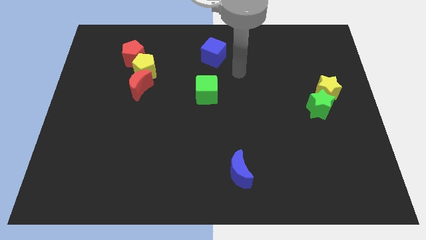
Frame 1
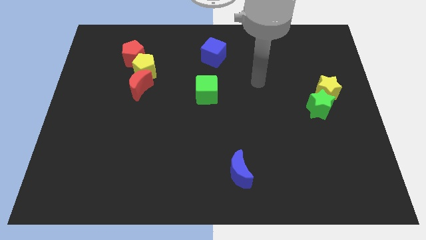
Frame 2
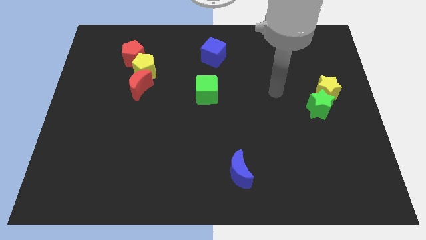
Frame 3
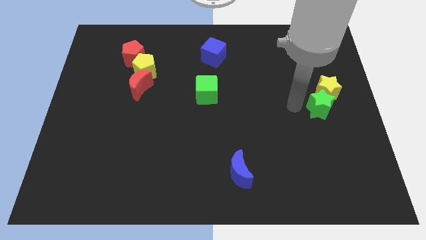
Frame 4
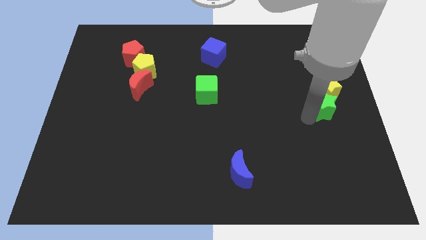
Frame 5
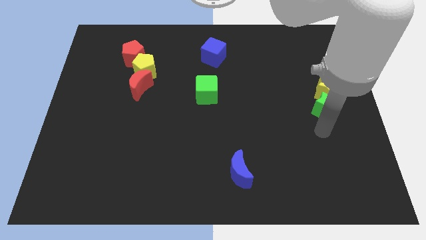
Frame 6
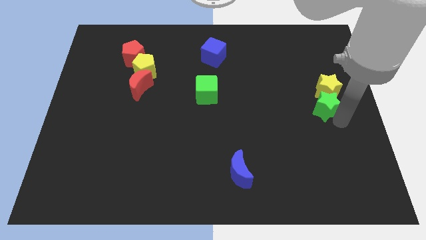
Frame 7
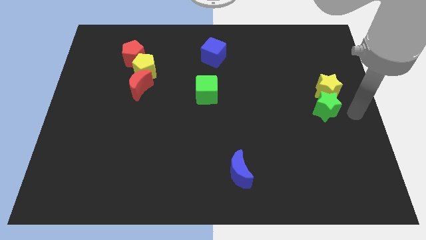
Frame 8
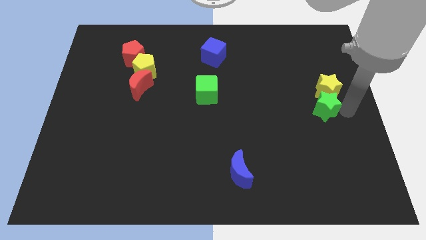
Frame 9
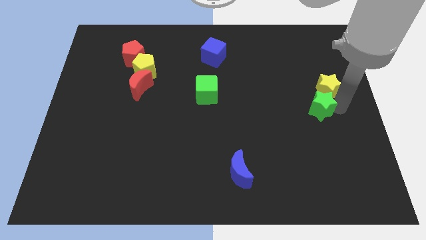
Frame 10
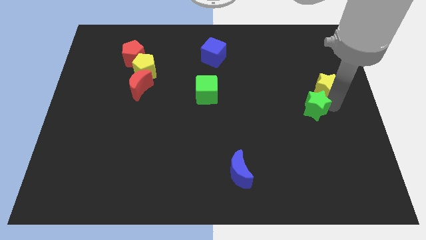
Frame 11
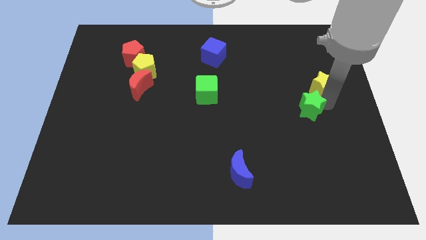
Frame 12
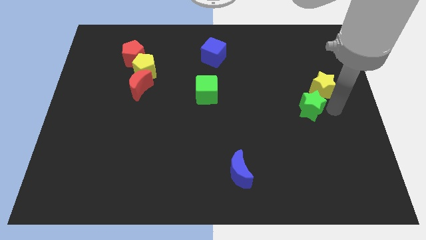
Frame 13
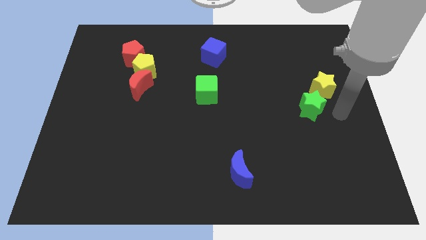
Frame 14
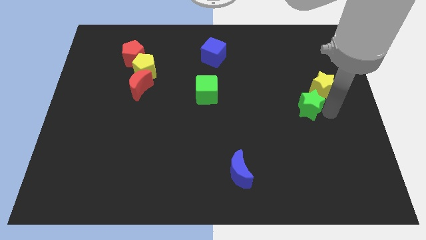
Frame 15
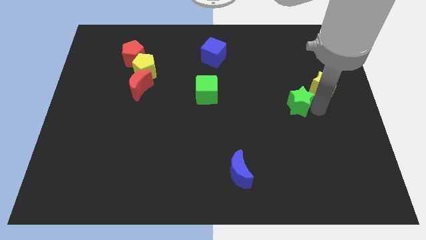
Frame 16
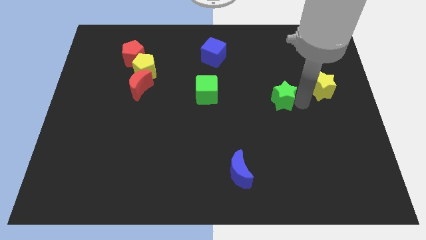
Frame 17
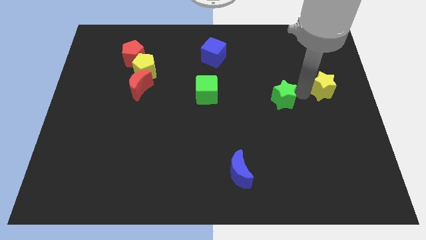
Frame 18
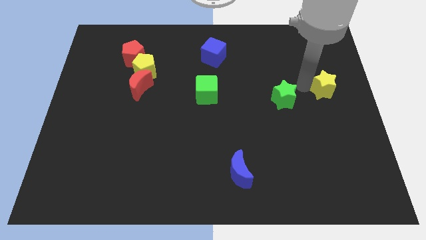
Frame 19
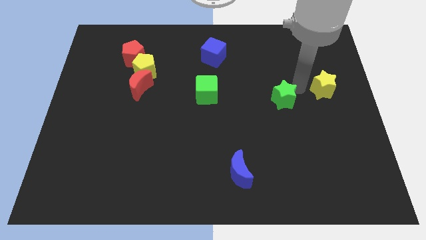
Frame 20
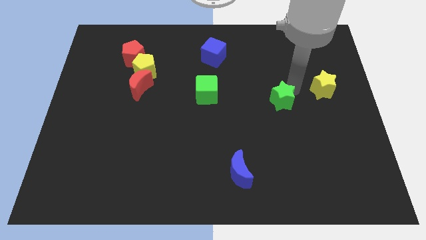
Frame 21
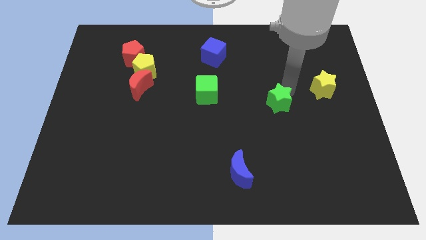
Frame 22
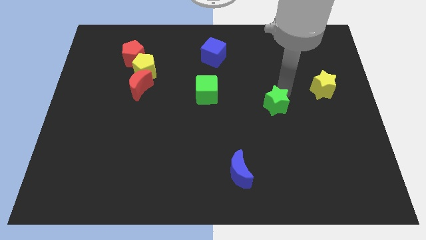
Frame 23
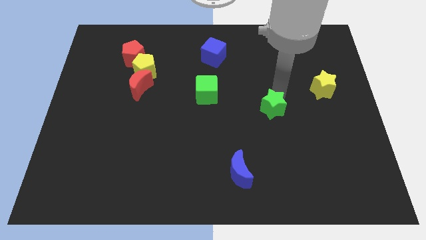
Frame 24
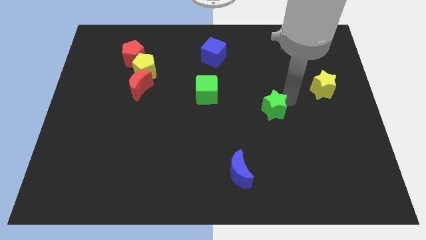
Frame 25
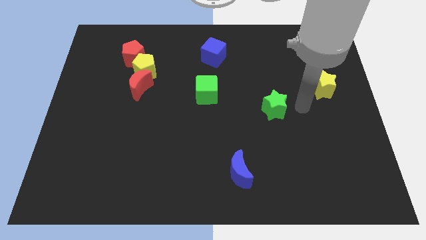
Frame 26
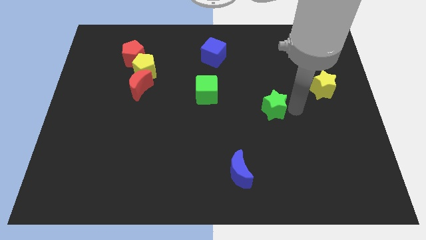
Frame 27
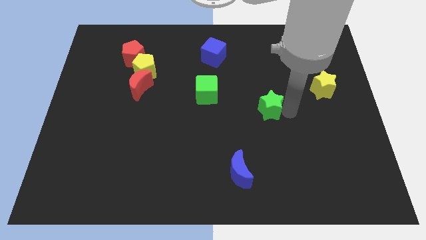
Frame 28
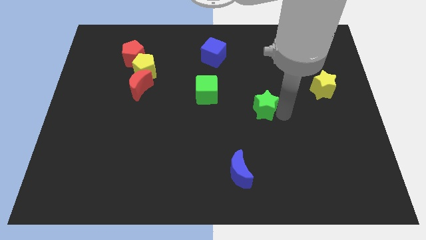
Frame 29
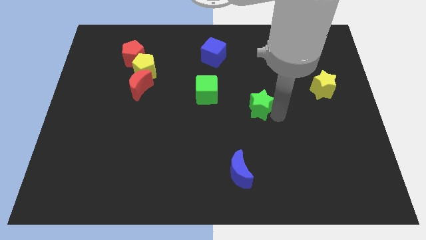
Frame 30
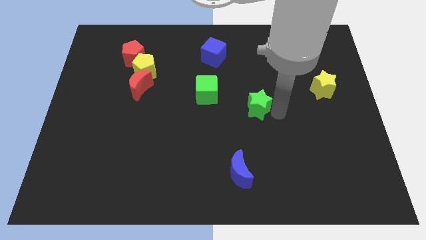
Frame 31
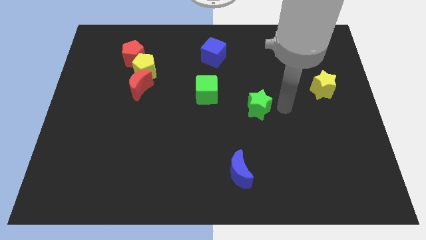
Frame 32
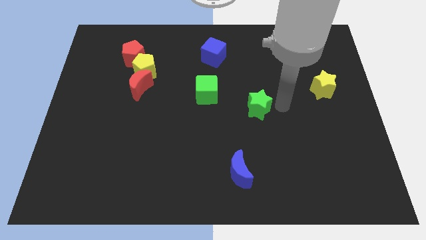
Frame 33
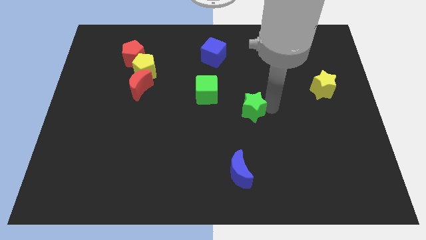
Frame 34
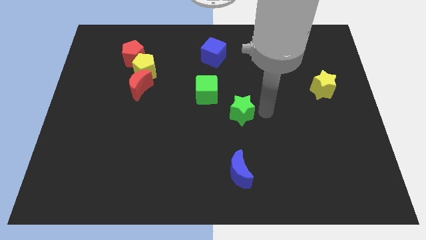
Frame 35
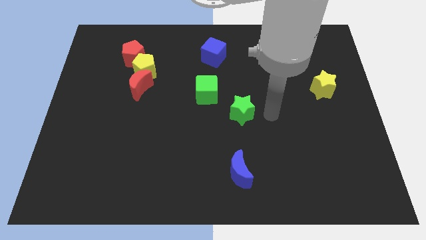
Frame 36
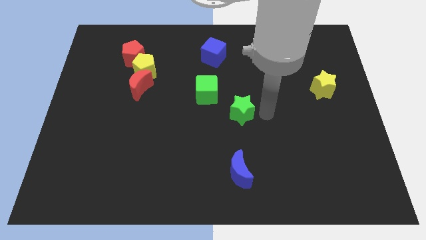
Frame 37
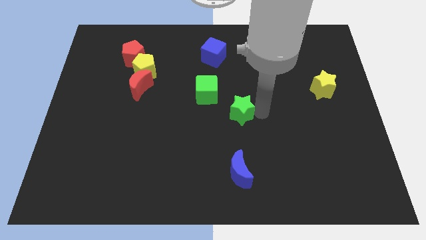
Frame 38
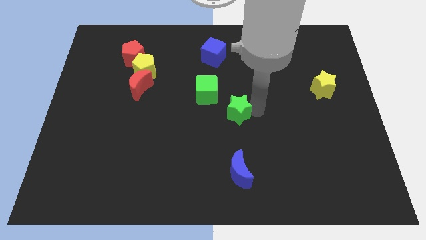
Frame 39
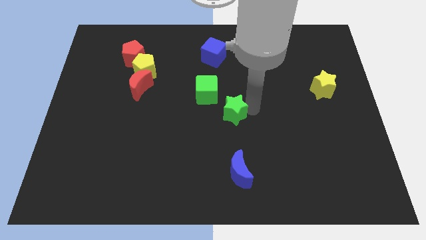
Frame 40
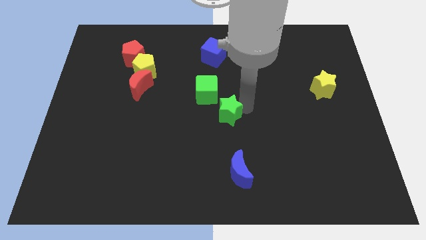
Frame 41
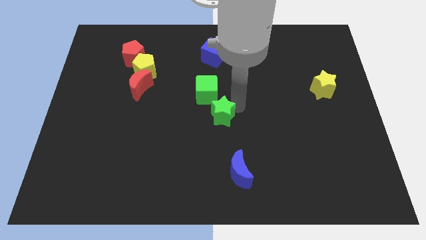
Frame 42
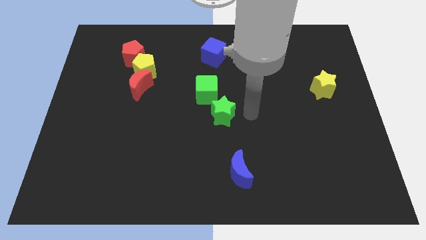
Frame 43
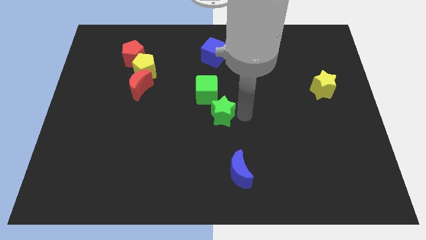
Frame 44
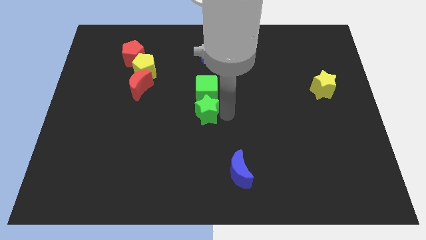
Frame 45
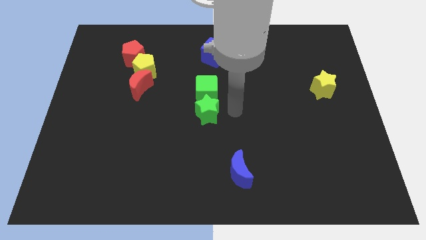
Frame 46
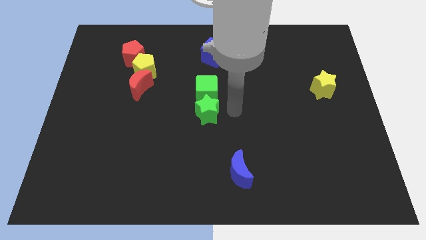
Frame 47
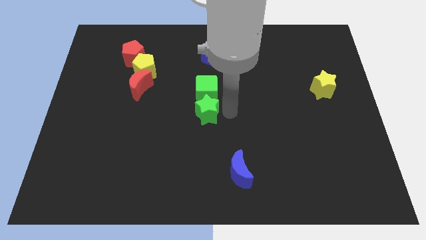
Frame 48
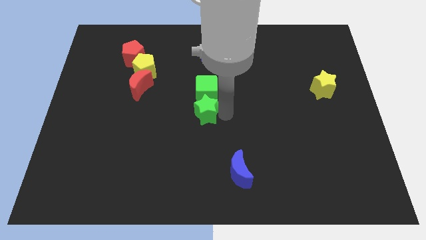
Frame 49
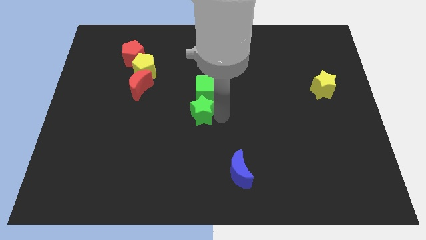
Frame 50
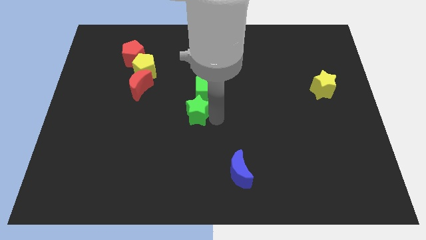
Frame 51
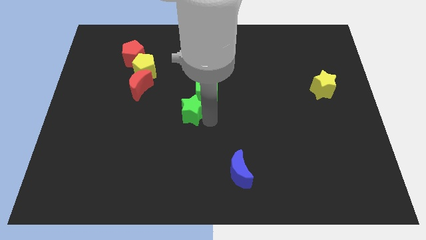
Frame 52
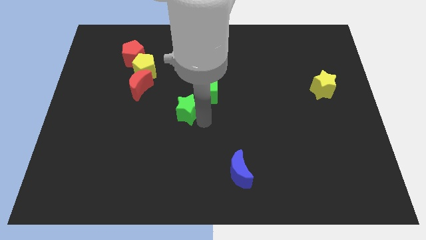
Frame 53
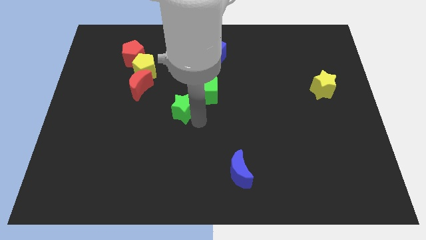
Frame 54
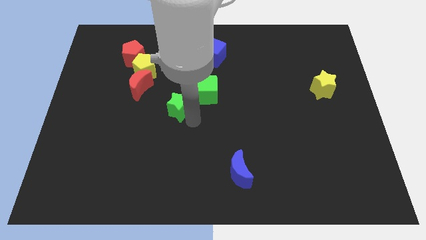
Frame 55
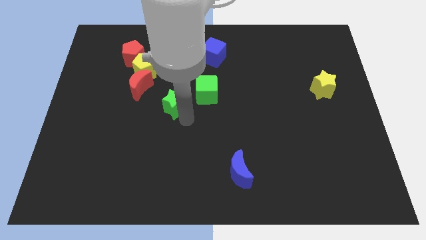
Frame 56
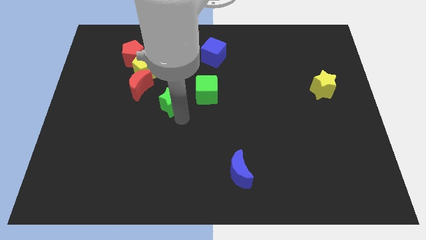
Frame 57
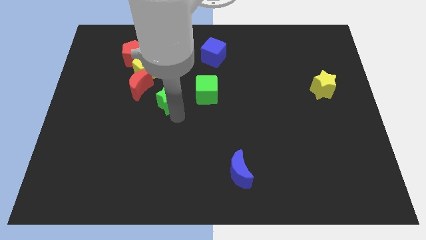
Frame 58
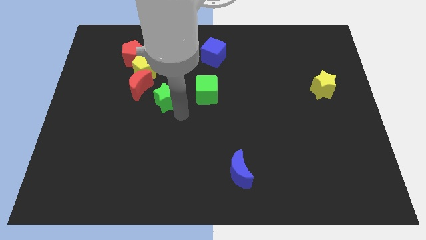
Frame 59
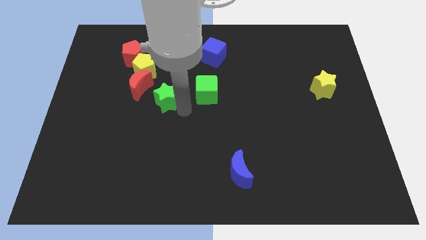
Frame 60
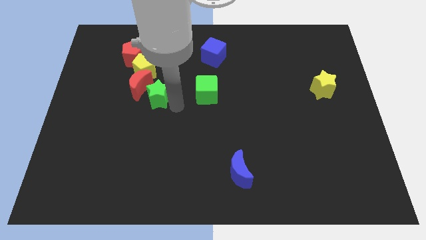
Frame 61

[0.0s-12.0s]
push the green star to the red moon

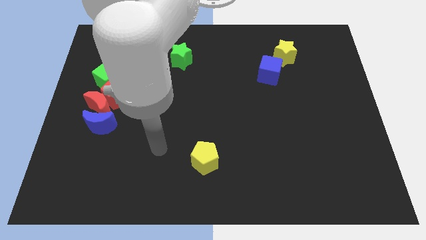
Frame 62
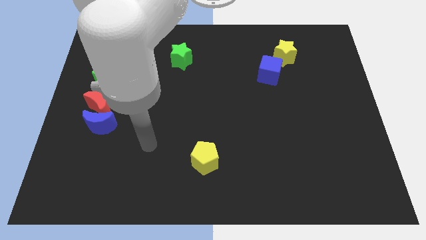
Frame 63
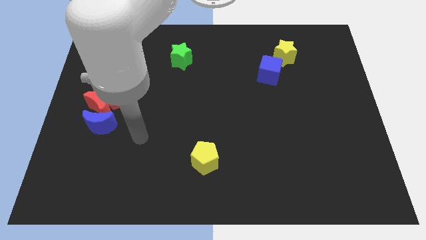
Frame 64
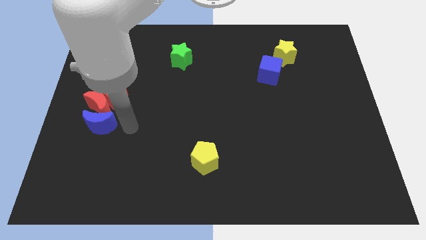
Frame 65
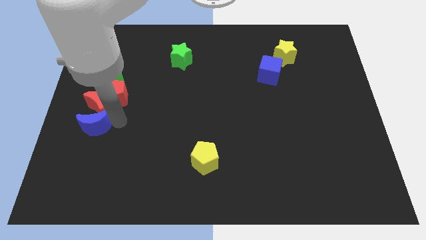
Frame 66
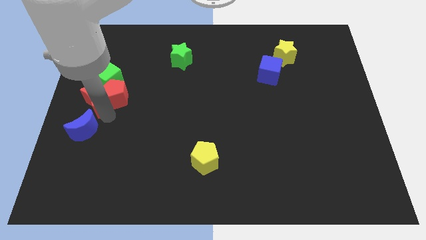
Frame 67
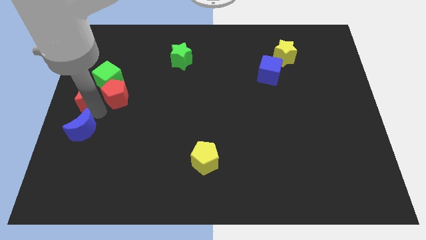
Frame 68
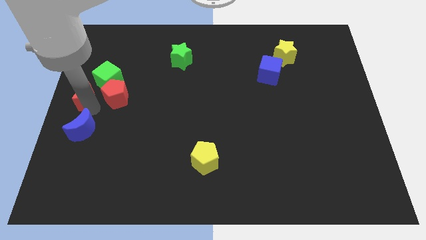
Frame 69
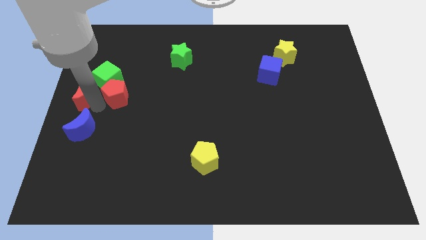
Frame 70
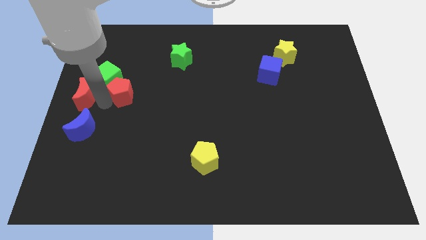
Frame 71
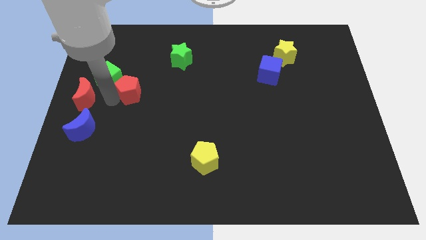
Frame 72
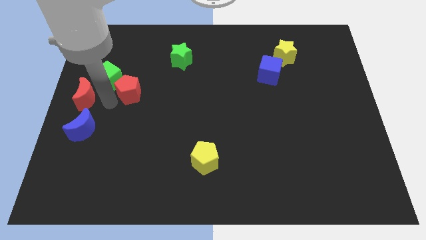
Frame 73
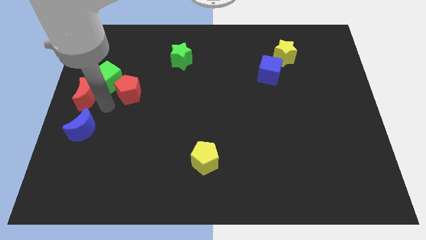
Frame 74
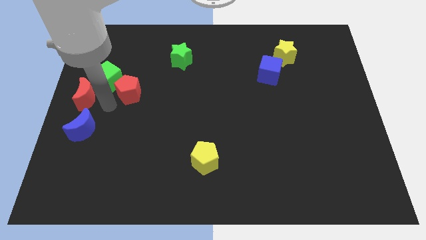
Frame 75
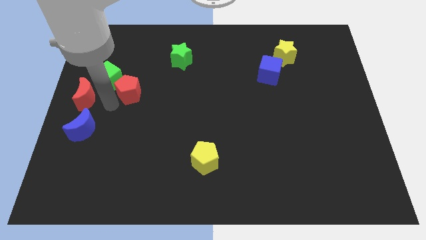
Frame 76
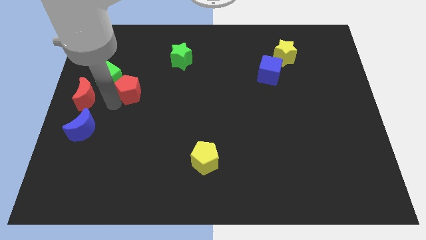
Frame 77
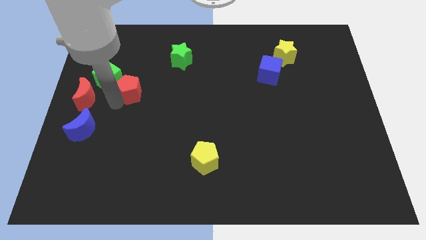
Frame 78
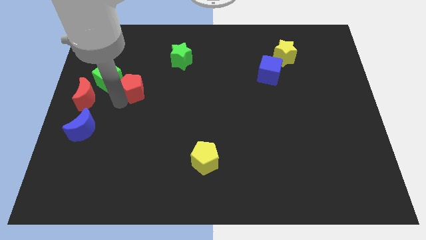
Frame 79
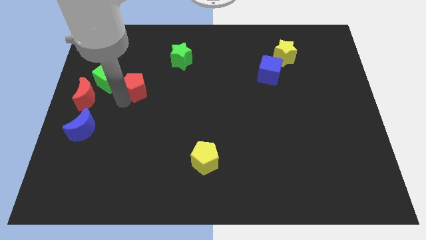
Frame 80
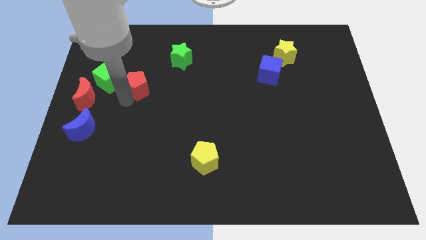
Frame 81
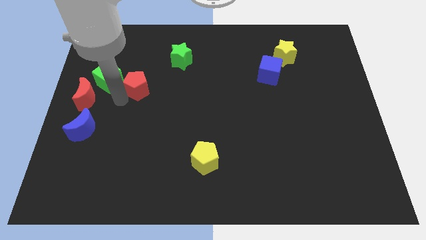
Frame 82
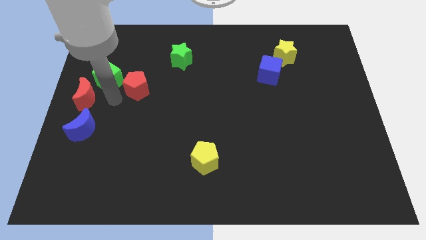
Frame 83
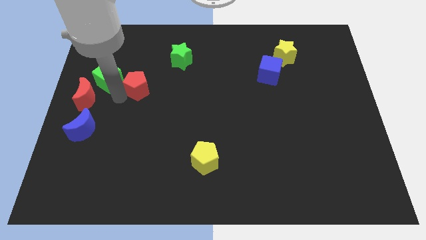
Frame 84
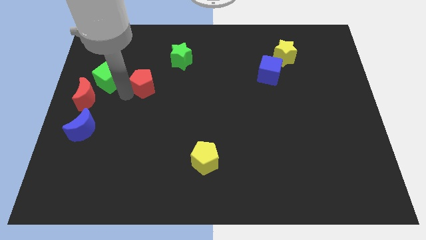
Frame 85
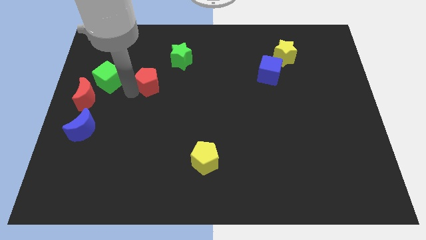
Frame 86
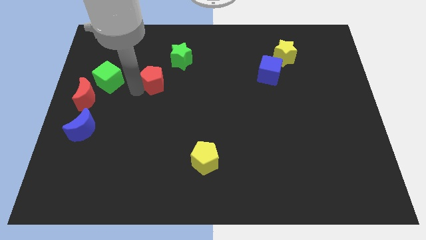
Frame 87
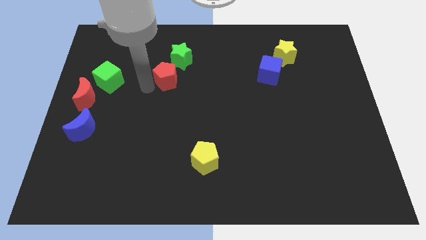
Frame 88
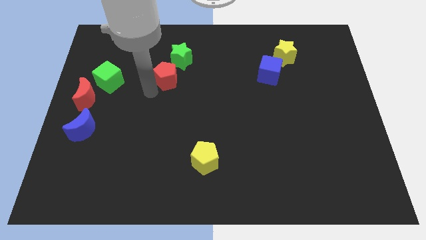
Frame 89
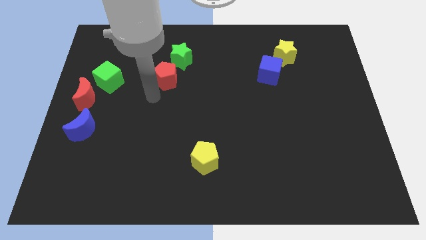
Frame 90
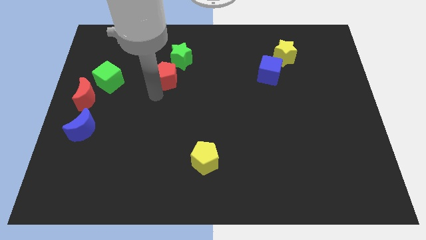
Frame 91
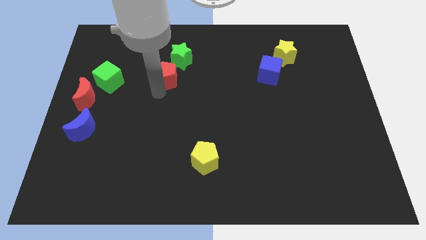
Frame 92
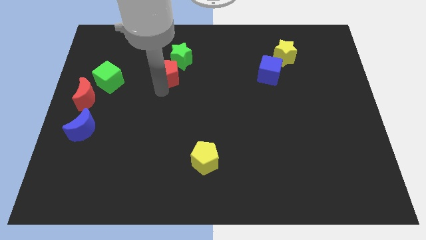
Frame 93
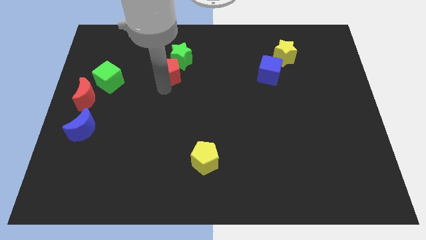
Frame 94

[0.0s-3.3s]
move the red pentagon close to the green star
